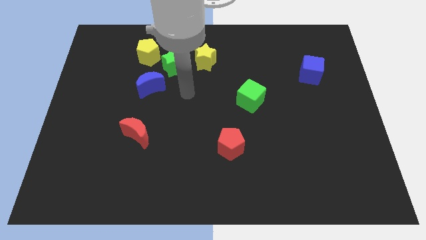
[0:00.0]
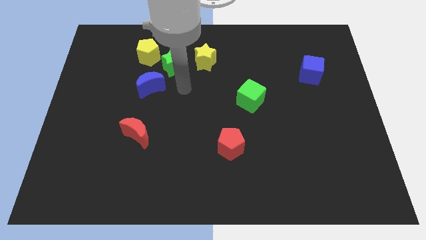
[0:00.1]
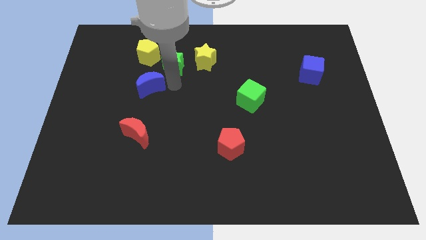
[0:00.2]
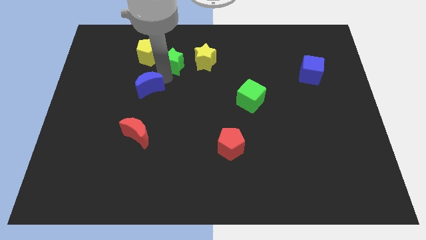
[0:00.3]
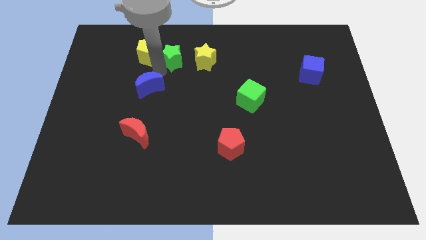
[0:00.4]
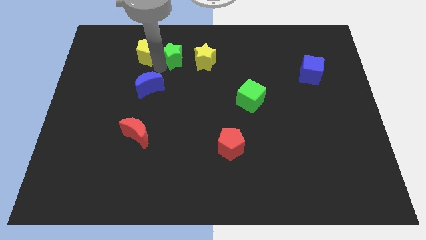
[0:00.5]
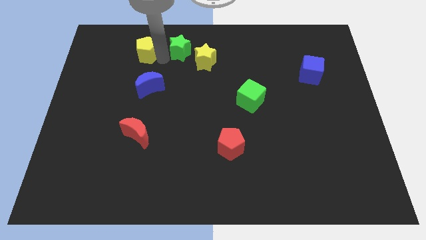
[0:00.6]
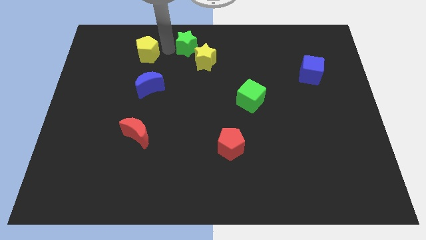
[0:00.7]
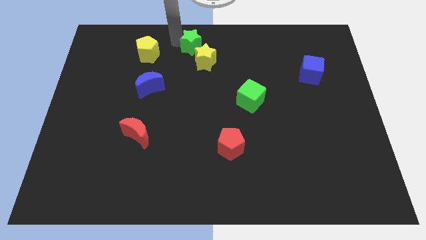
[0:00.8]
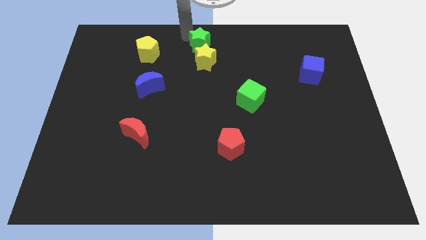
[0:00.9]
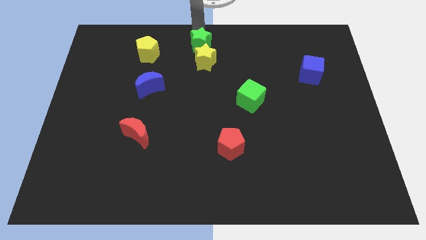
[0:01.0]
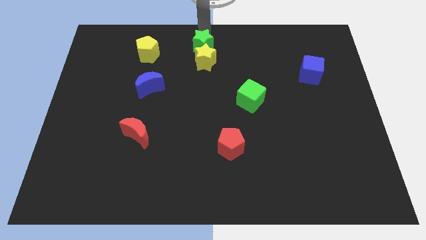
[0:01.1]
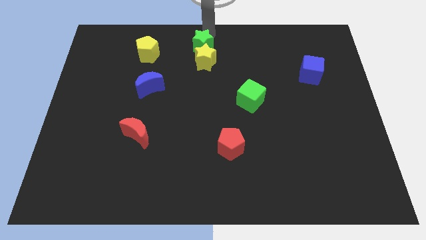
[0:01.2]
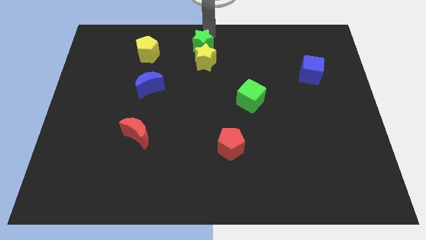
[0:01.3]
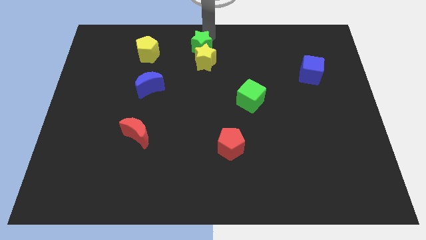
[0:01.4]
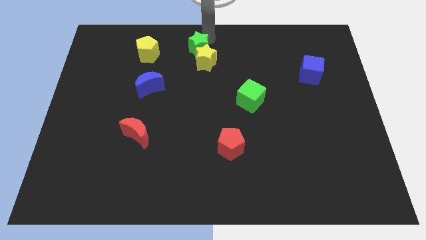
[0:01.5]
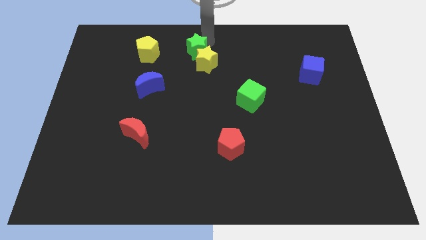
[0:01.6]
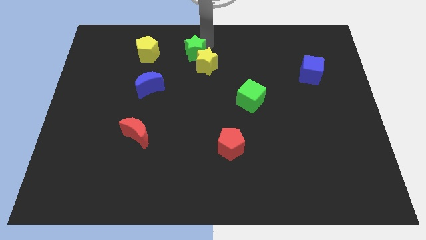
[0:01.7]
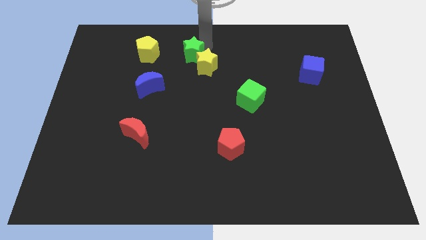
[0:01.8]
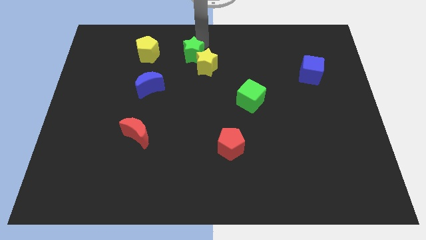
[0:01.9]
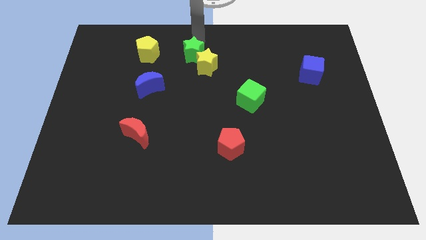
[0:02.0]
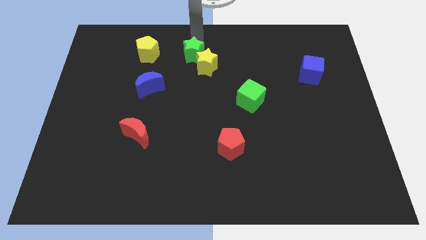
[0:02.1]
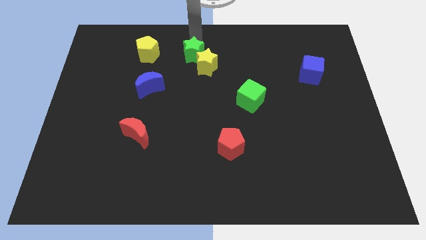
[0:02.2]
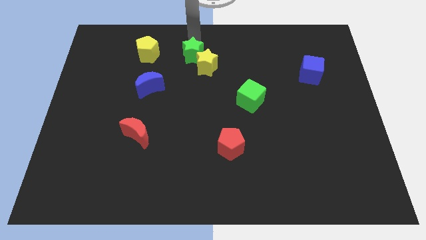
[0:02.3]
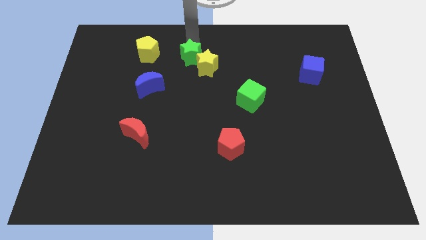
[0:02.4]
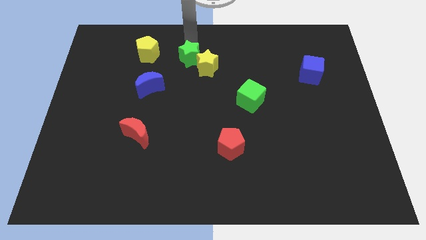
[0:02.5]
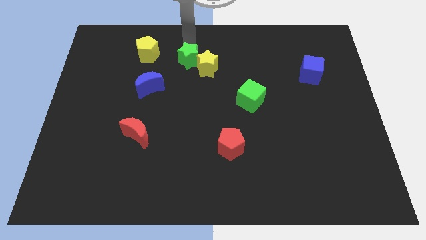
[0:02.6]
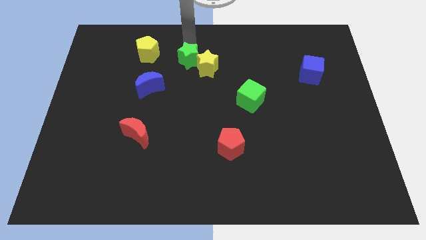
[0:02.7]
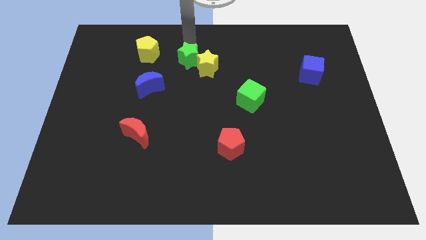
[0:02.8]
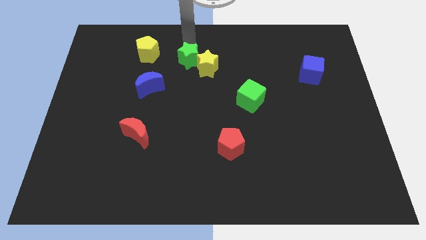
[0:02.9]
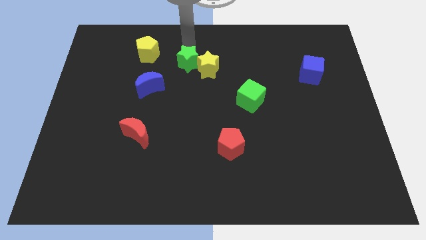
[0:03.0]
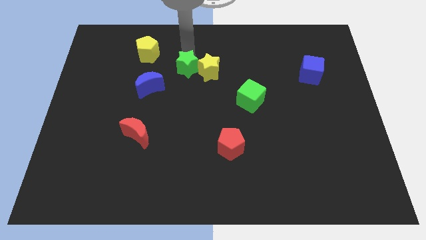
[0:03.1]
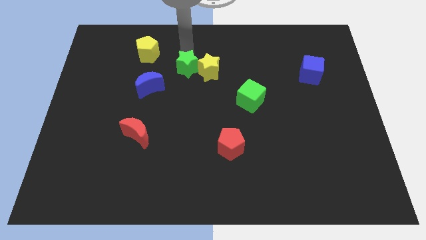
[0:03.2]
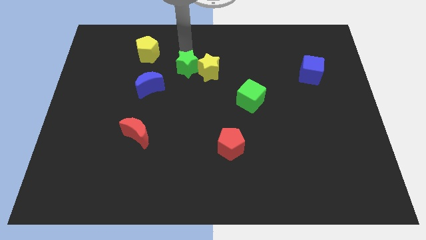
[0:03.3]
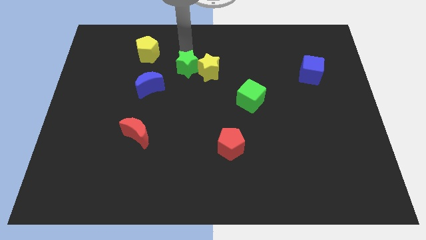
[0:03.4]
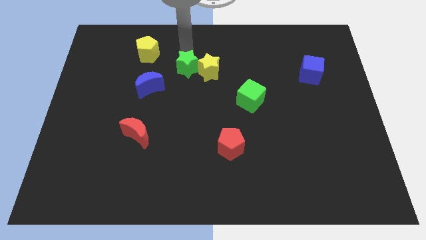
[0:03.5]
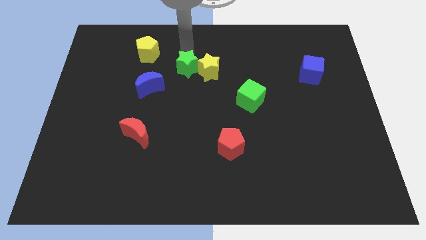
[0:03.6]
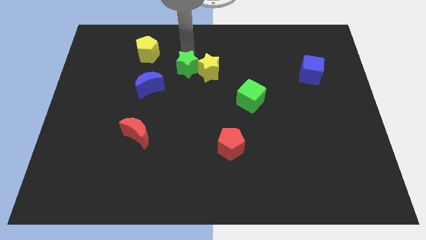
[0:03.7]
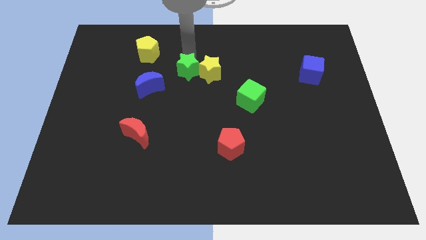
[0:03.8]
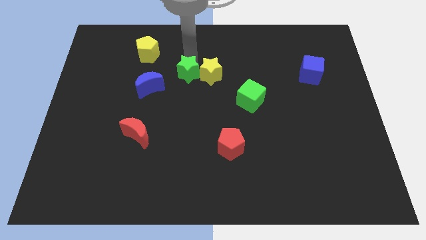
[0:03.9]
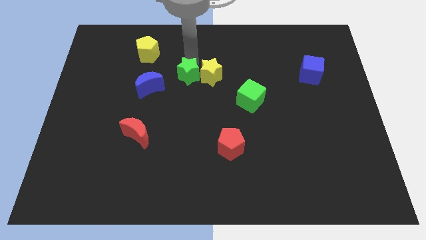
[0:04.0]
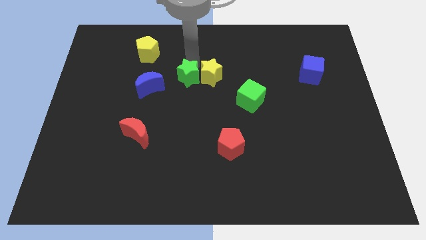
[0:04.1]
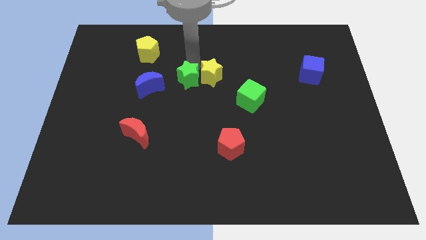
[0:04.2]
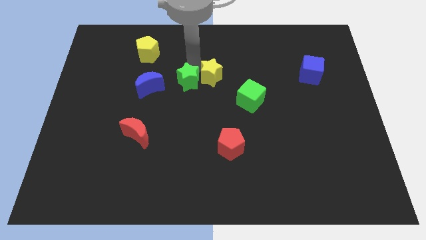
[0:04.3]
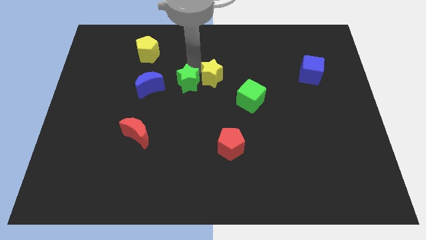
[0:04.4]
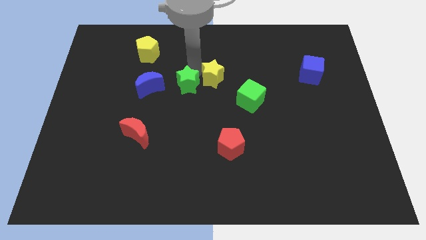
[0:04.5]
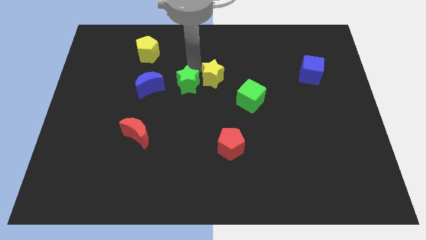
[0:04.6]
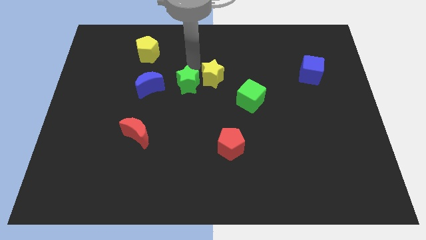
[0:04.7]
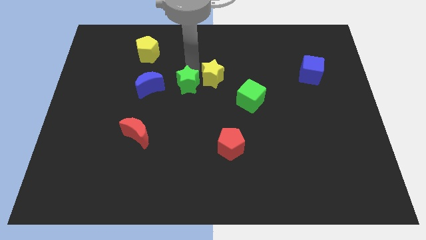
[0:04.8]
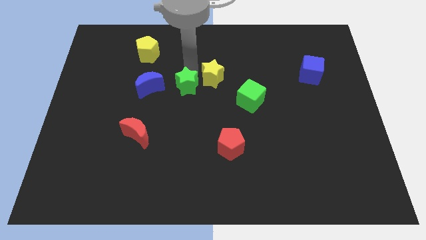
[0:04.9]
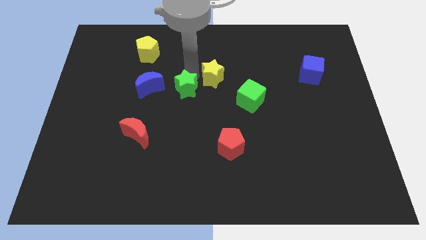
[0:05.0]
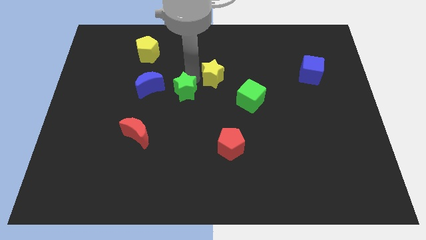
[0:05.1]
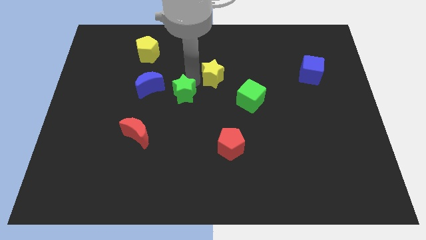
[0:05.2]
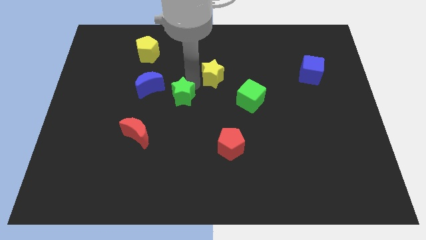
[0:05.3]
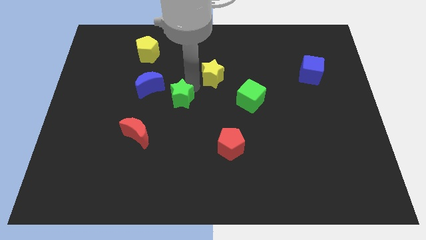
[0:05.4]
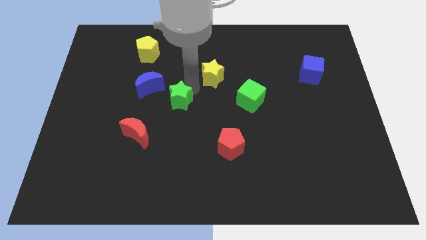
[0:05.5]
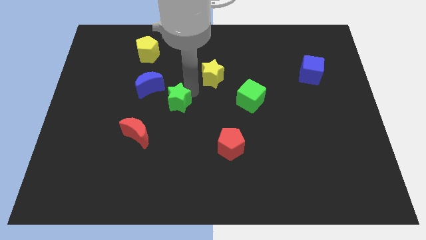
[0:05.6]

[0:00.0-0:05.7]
put the green star to the top right side of the red moon

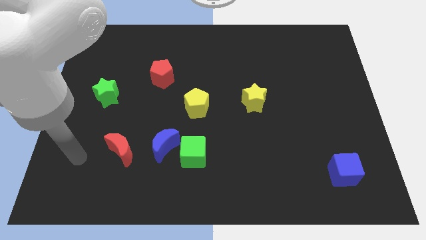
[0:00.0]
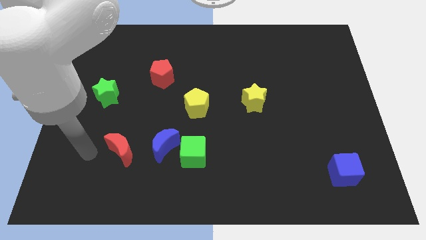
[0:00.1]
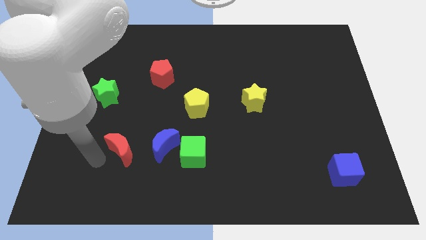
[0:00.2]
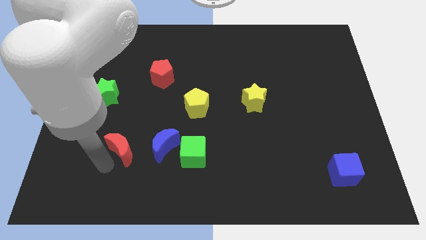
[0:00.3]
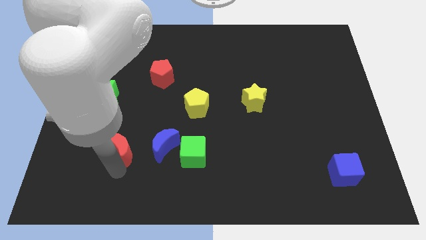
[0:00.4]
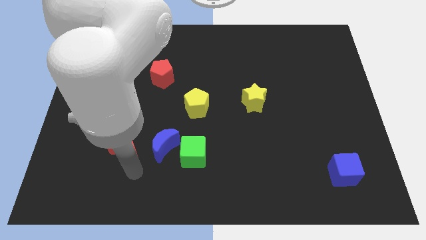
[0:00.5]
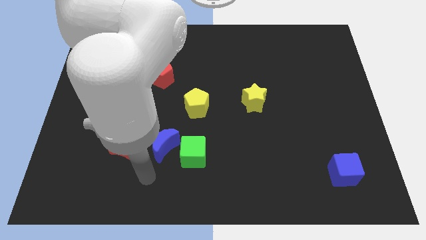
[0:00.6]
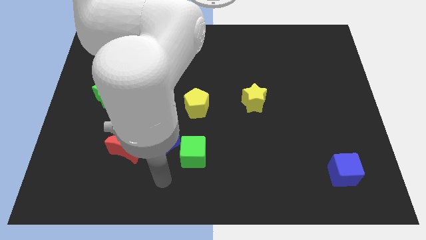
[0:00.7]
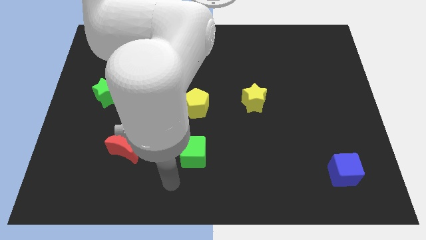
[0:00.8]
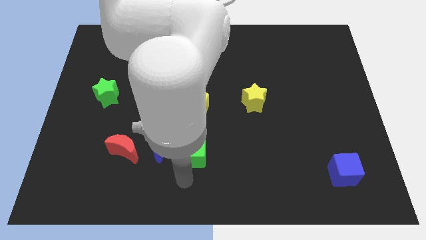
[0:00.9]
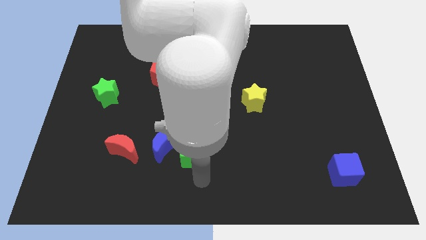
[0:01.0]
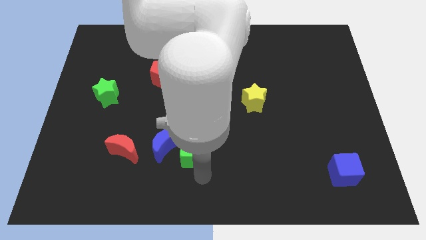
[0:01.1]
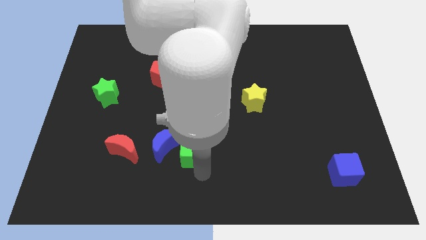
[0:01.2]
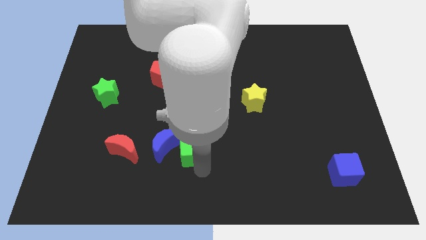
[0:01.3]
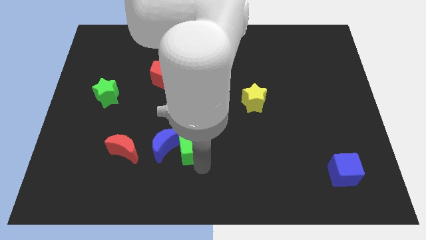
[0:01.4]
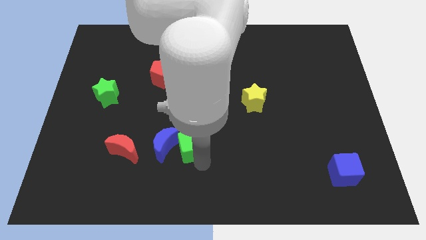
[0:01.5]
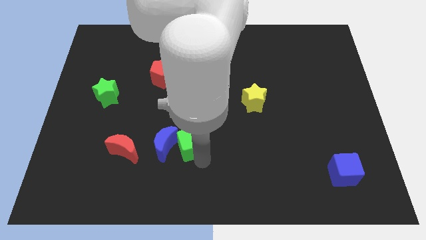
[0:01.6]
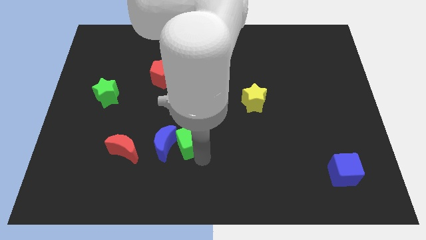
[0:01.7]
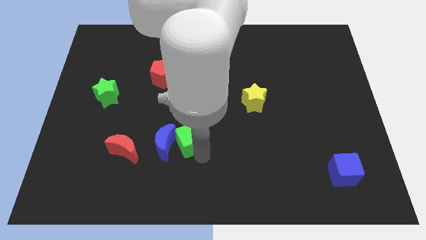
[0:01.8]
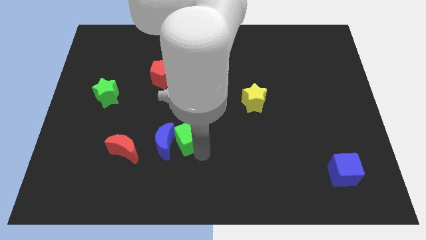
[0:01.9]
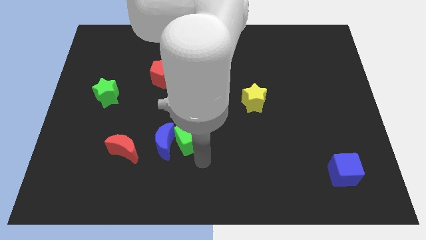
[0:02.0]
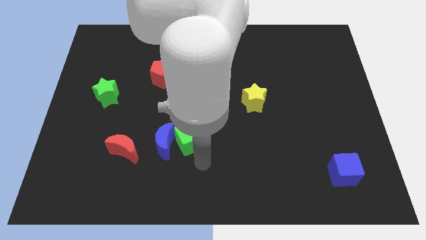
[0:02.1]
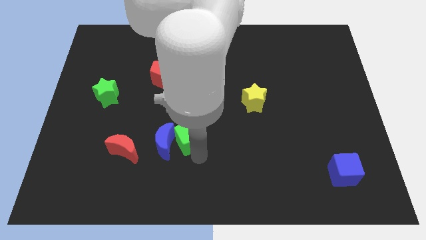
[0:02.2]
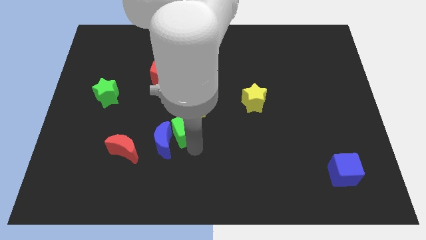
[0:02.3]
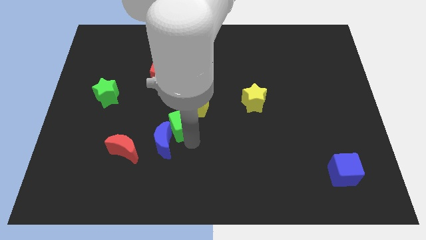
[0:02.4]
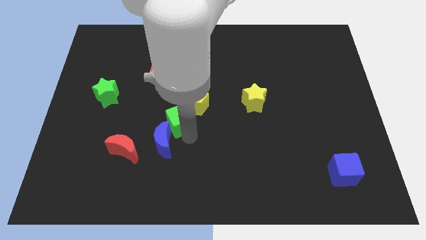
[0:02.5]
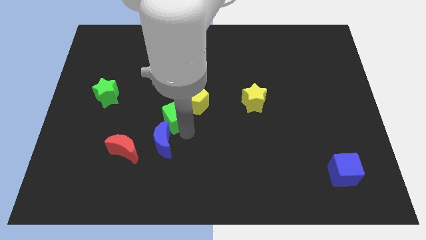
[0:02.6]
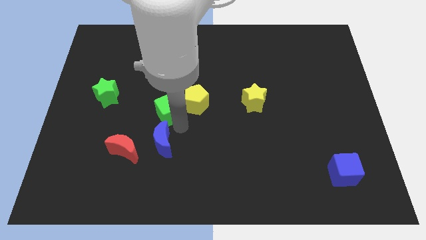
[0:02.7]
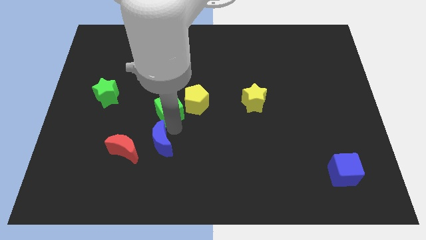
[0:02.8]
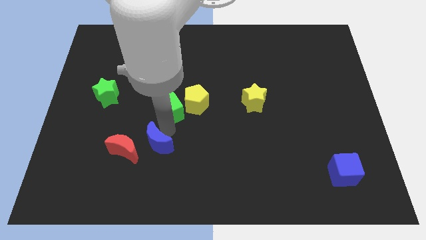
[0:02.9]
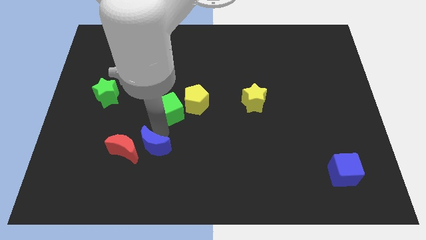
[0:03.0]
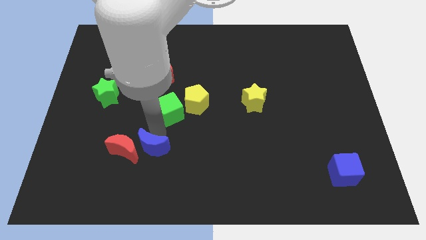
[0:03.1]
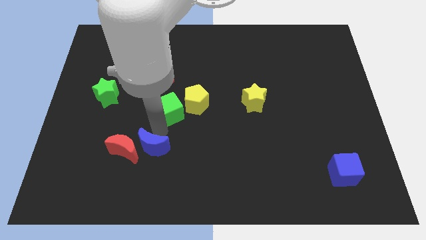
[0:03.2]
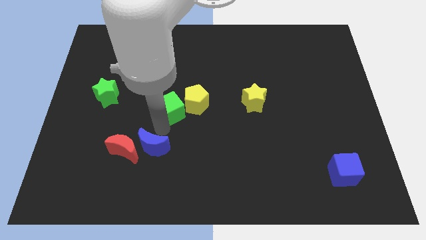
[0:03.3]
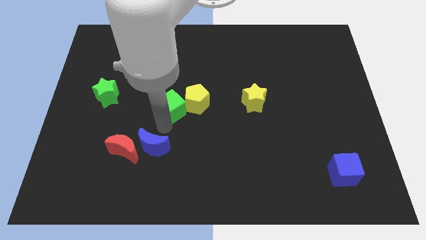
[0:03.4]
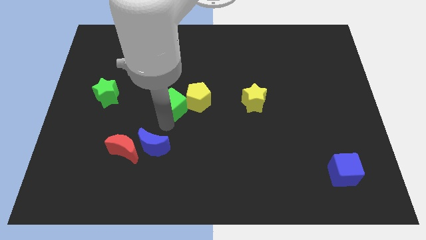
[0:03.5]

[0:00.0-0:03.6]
put the green cube to the bottom right of the red pentagon
